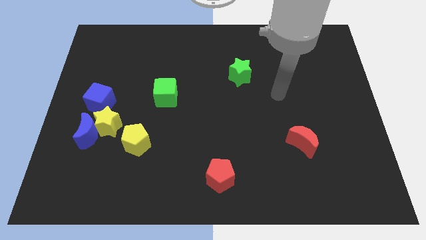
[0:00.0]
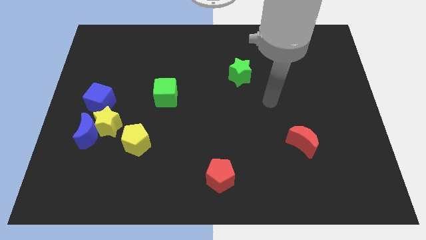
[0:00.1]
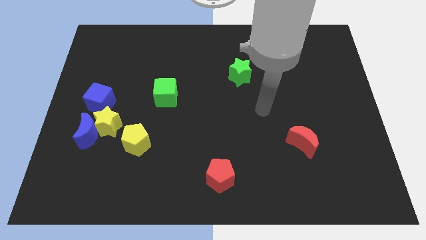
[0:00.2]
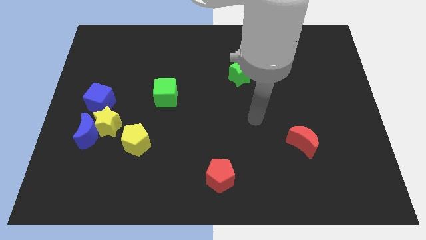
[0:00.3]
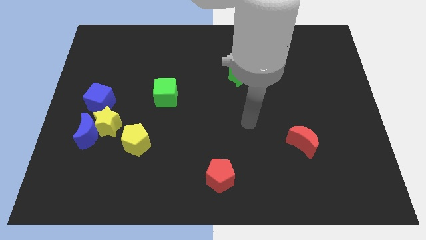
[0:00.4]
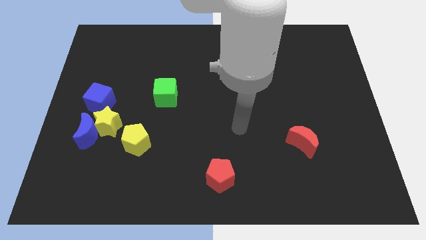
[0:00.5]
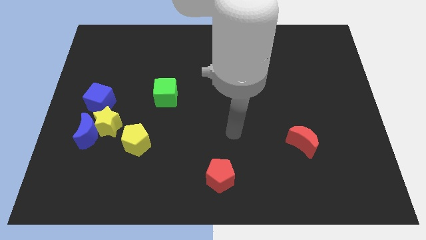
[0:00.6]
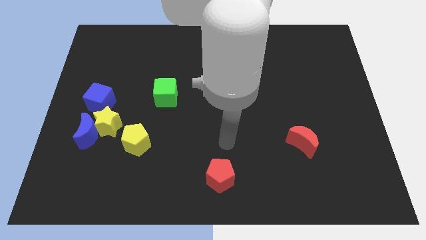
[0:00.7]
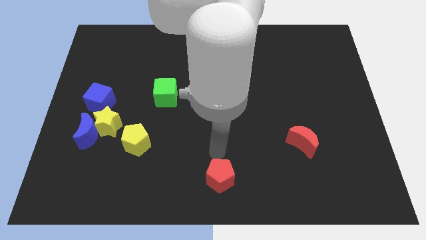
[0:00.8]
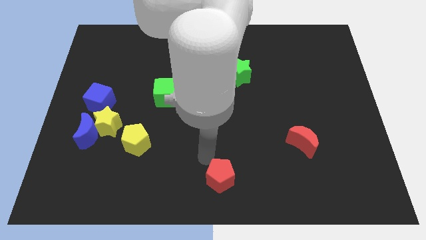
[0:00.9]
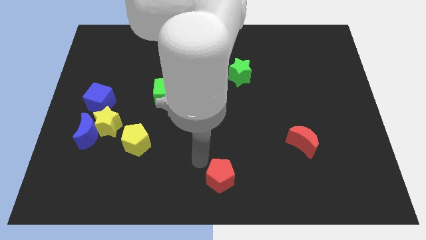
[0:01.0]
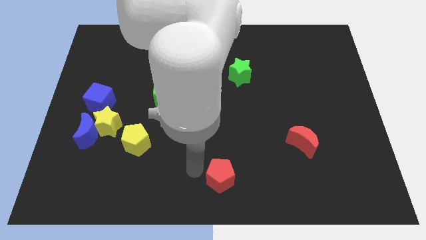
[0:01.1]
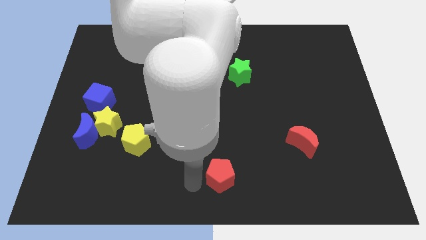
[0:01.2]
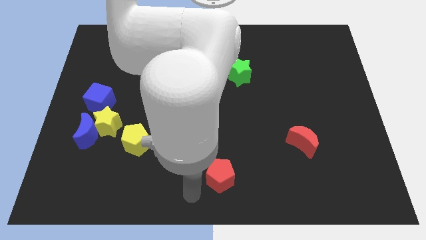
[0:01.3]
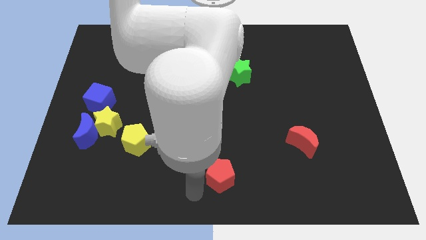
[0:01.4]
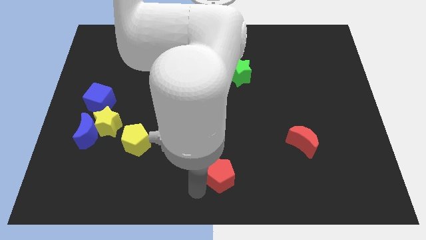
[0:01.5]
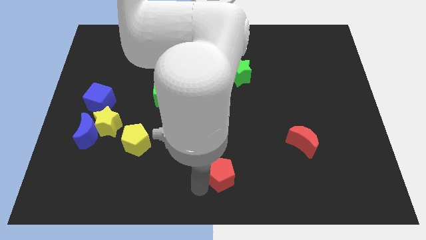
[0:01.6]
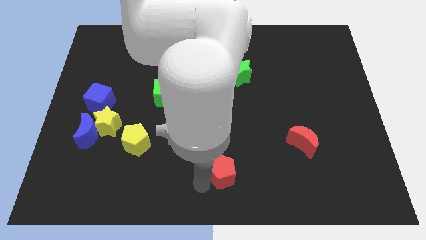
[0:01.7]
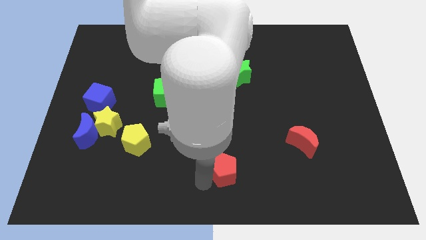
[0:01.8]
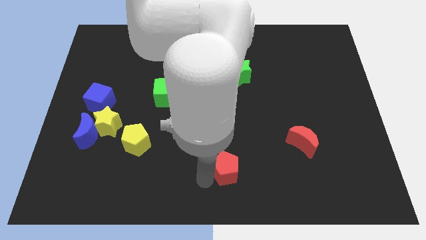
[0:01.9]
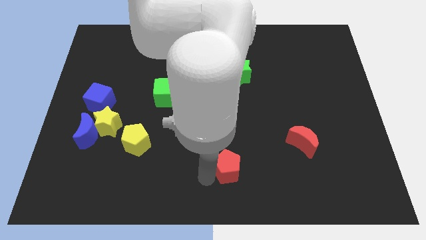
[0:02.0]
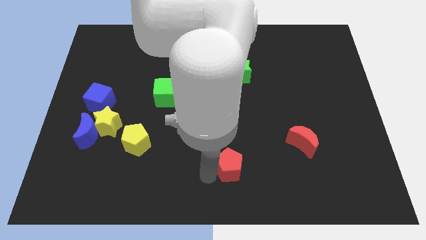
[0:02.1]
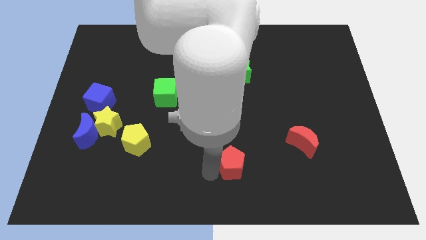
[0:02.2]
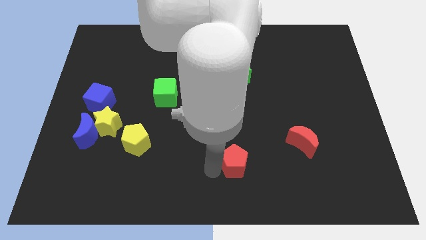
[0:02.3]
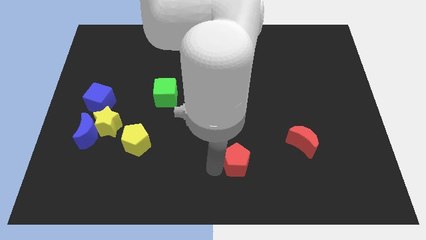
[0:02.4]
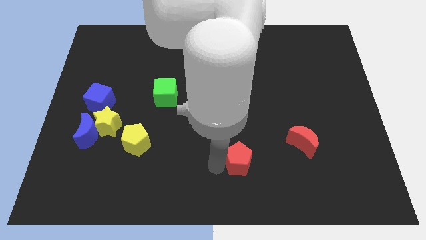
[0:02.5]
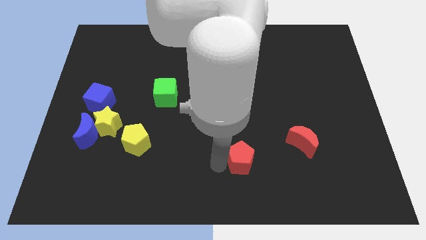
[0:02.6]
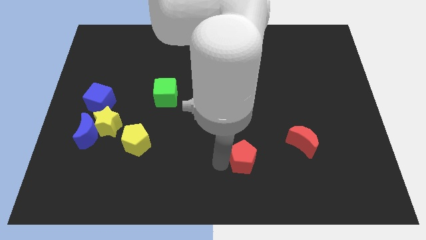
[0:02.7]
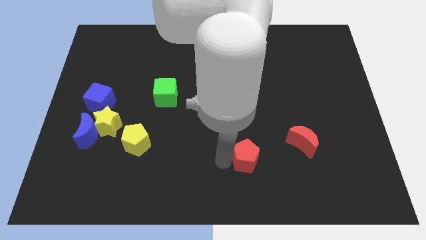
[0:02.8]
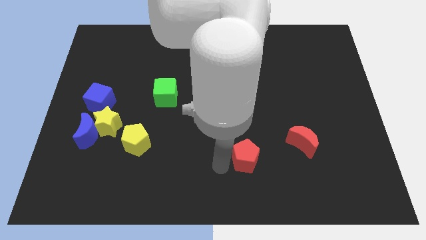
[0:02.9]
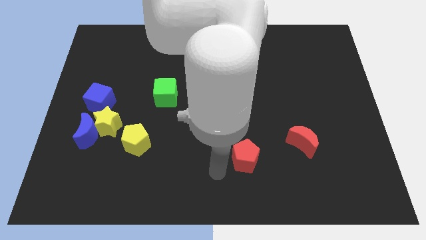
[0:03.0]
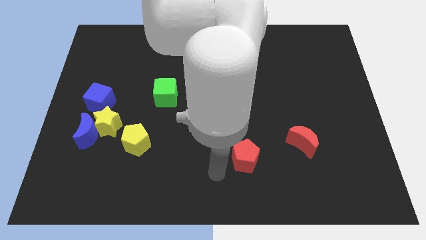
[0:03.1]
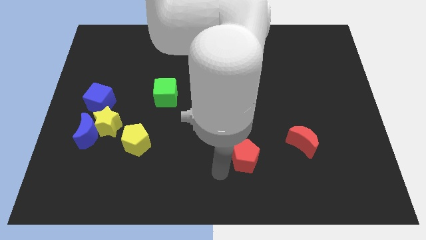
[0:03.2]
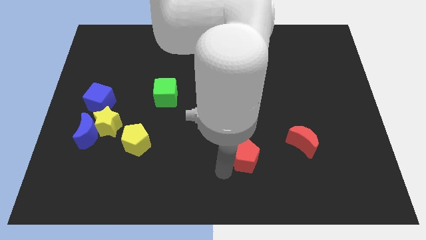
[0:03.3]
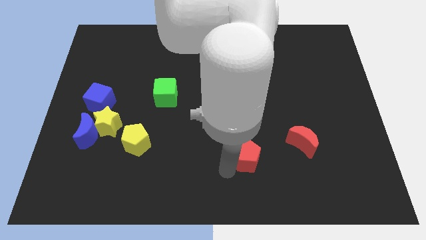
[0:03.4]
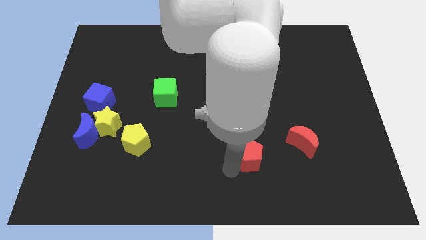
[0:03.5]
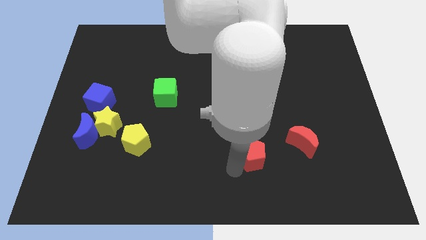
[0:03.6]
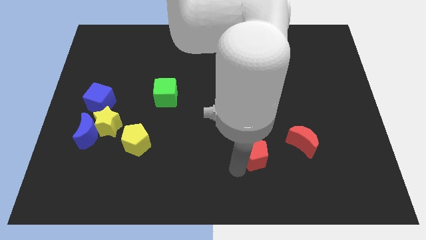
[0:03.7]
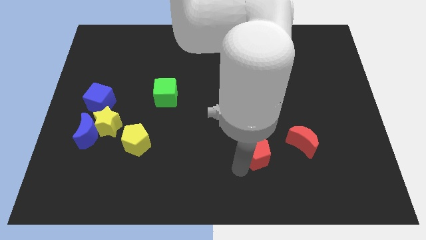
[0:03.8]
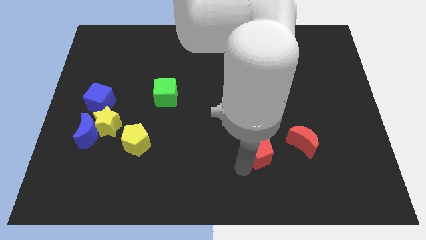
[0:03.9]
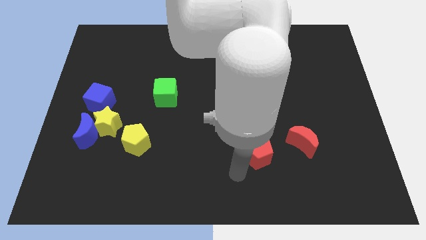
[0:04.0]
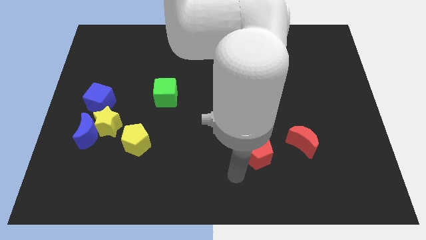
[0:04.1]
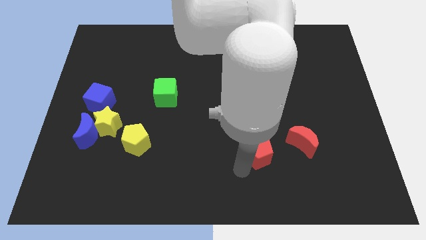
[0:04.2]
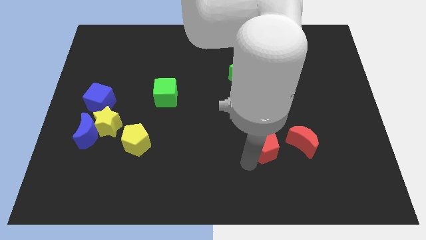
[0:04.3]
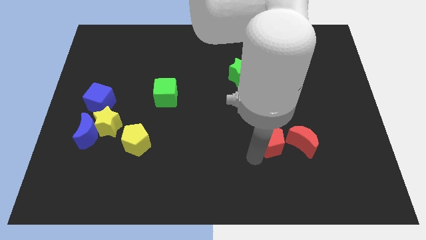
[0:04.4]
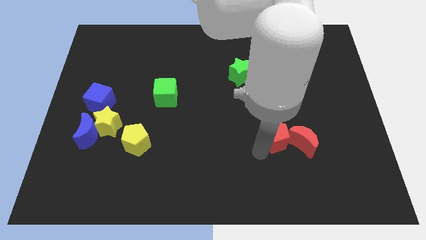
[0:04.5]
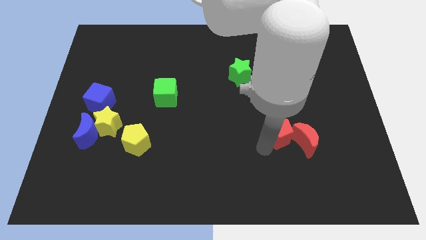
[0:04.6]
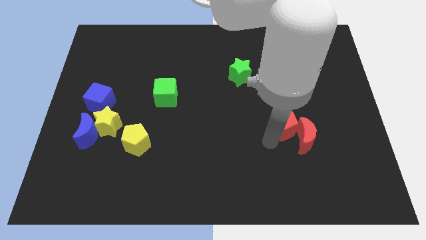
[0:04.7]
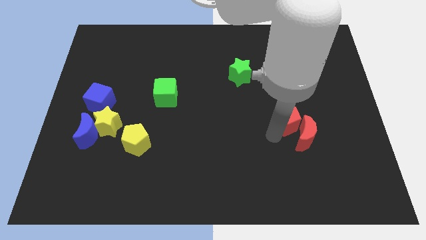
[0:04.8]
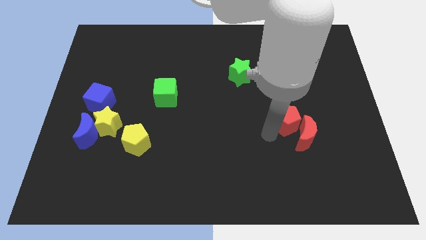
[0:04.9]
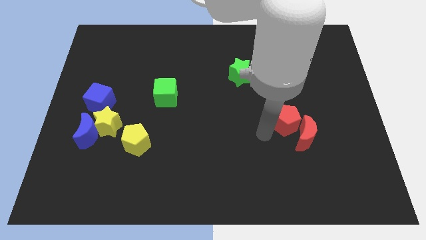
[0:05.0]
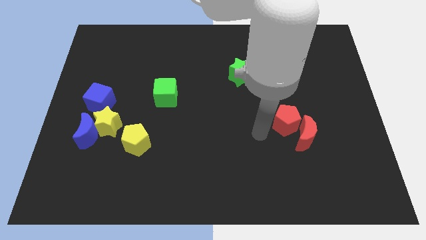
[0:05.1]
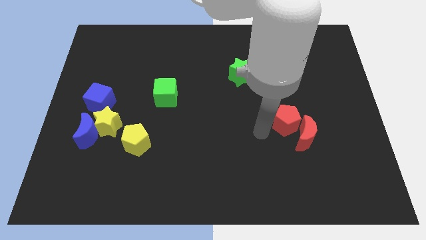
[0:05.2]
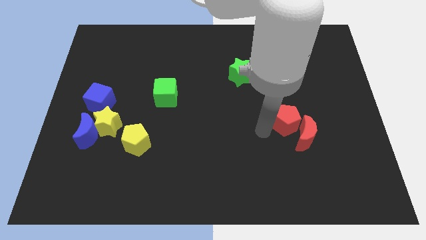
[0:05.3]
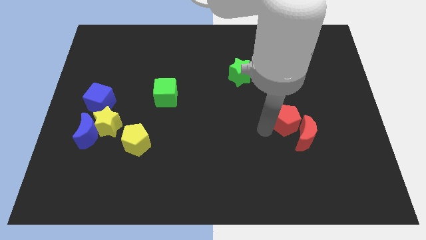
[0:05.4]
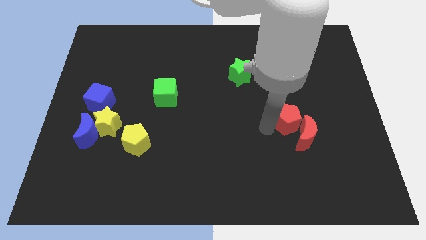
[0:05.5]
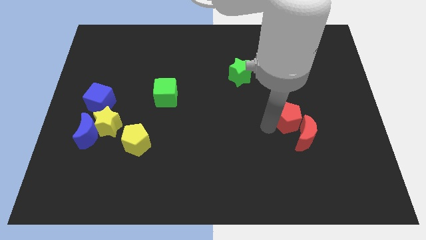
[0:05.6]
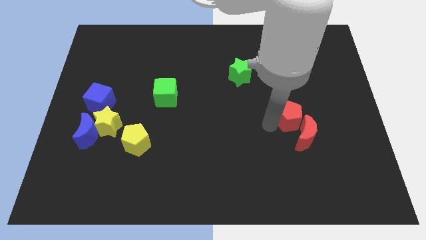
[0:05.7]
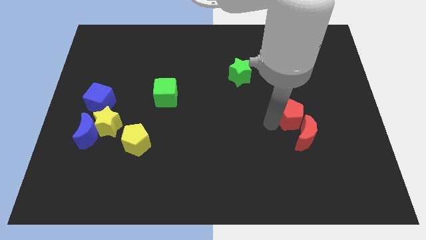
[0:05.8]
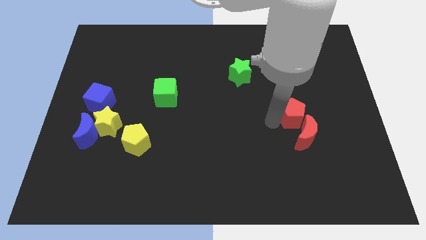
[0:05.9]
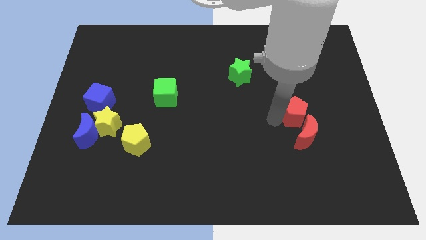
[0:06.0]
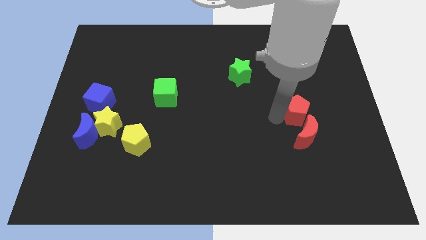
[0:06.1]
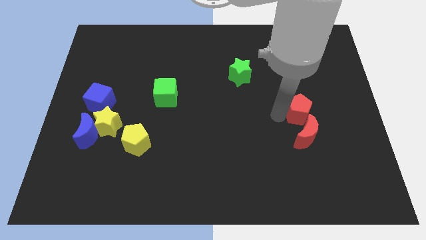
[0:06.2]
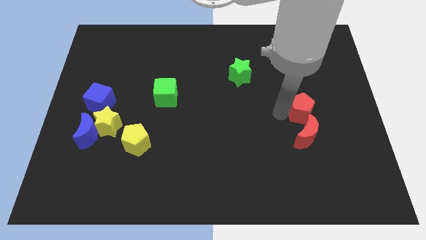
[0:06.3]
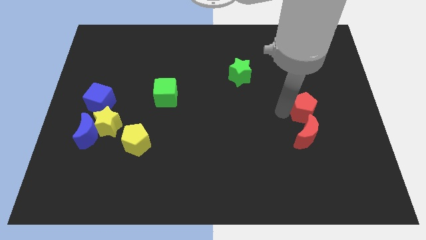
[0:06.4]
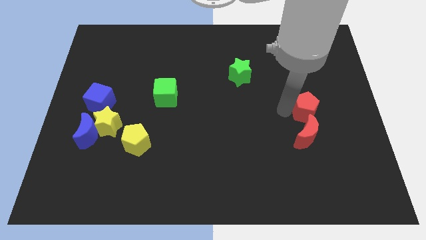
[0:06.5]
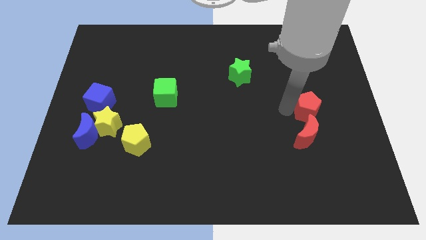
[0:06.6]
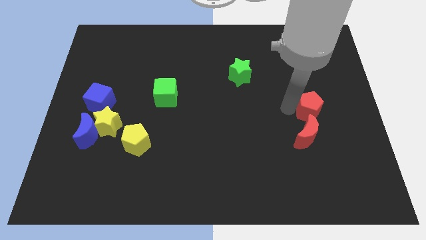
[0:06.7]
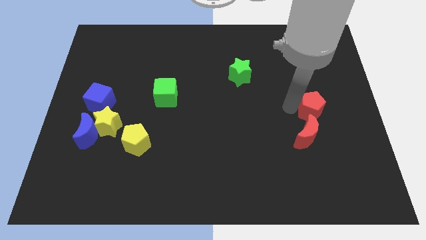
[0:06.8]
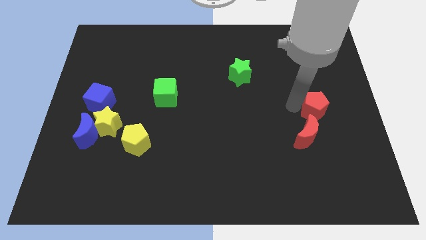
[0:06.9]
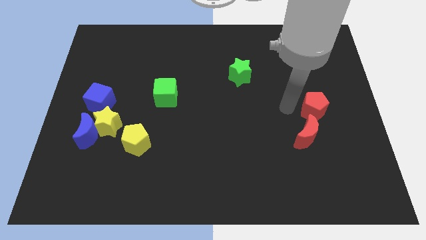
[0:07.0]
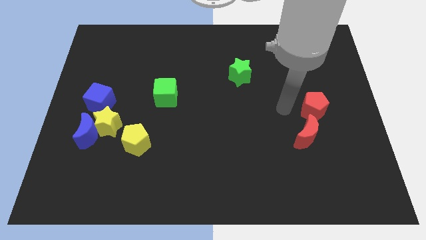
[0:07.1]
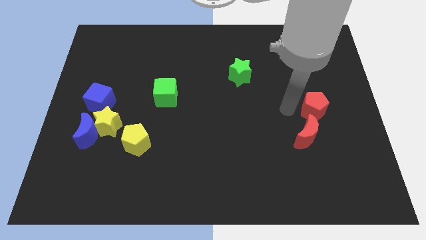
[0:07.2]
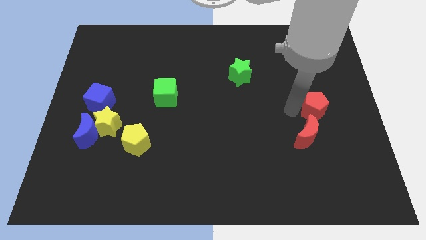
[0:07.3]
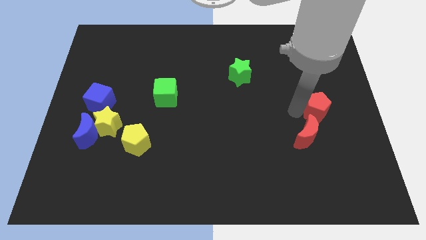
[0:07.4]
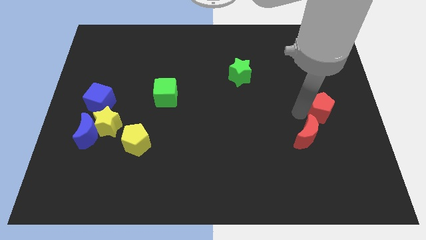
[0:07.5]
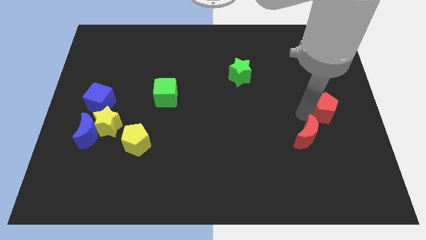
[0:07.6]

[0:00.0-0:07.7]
put the red pentagon to the right side
